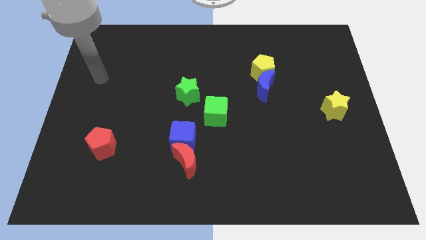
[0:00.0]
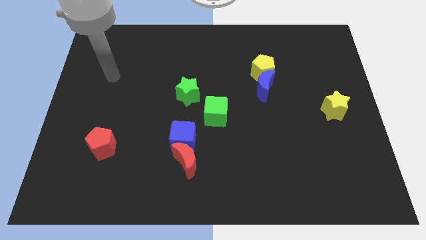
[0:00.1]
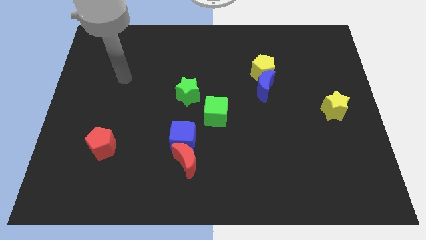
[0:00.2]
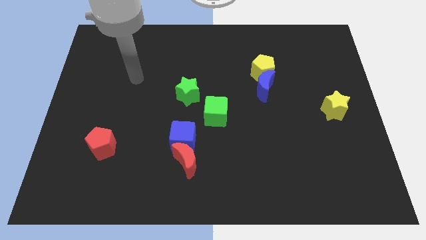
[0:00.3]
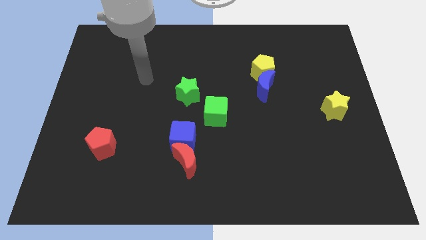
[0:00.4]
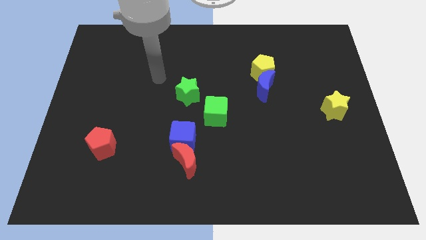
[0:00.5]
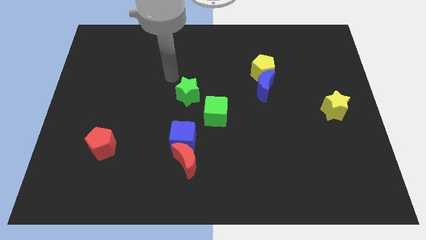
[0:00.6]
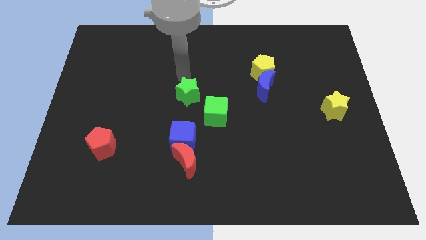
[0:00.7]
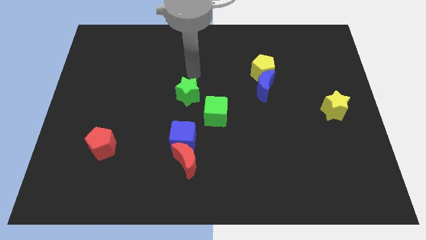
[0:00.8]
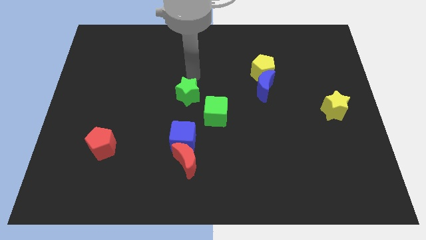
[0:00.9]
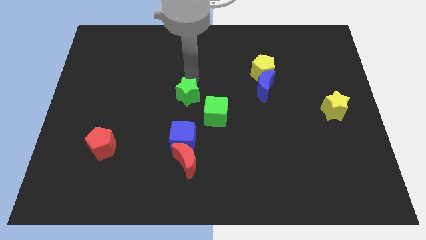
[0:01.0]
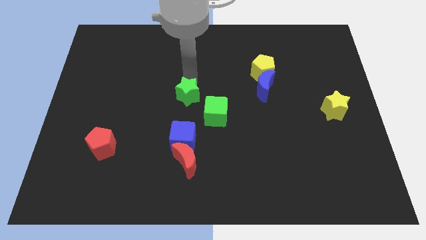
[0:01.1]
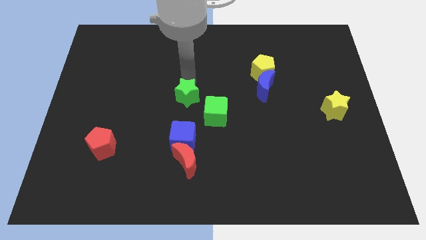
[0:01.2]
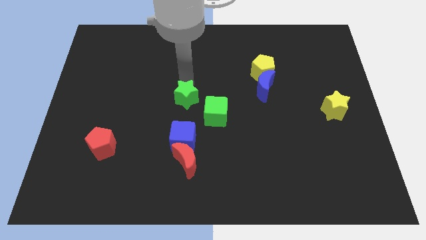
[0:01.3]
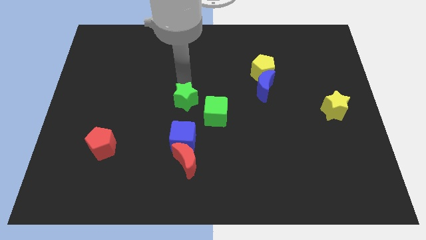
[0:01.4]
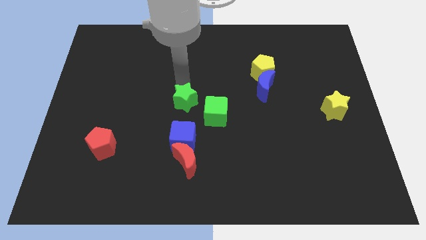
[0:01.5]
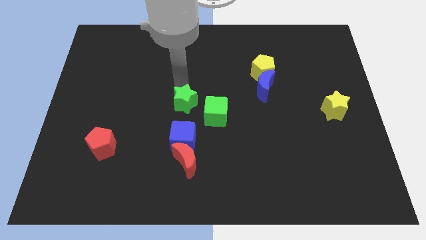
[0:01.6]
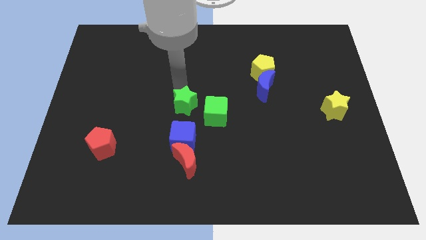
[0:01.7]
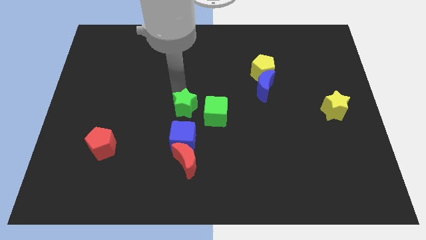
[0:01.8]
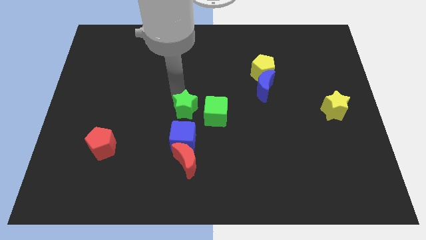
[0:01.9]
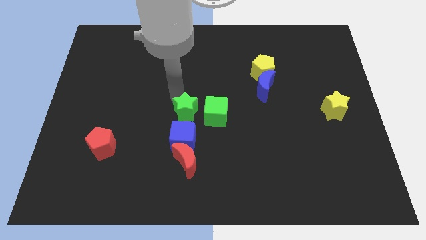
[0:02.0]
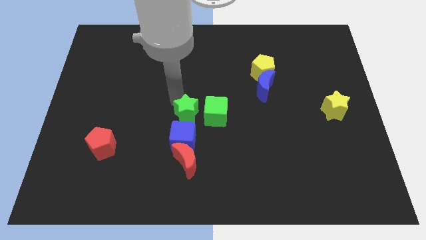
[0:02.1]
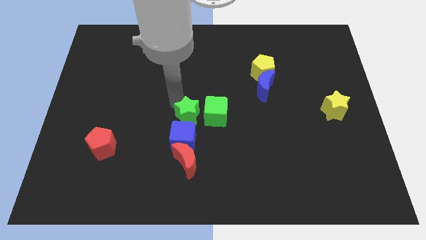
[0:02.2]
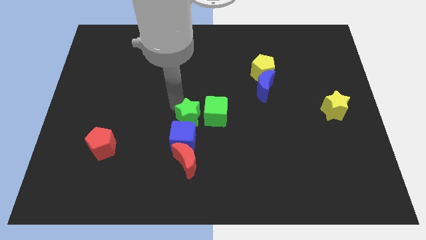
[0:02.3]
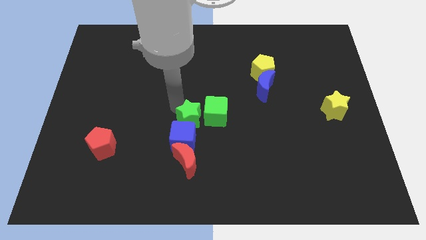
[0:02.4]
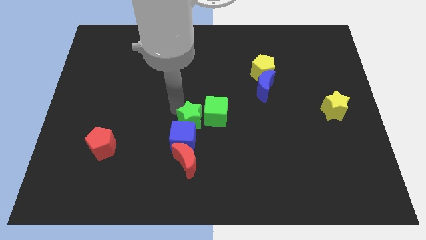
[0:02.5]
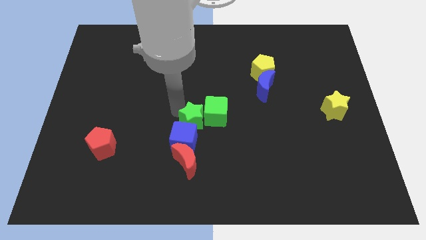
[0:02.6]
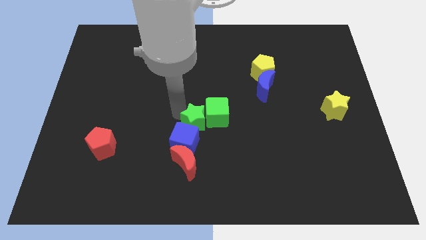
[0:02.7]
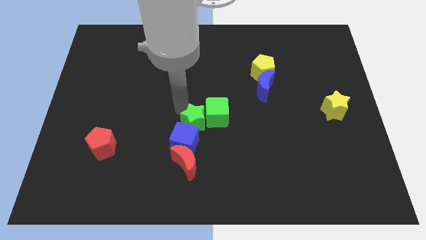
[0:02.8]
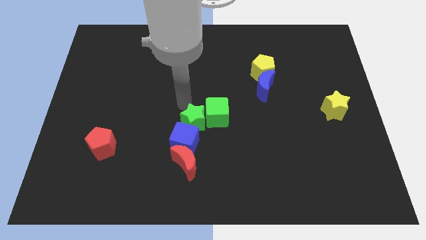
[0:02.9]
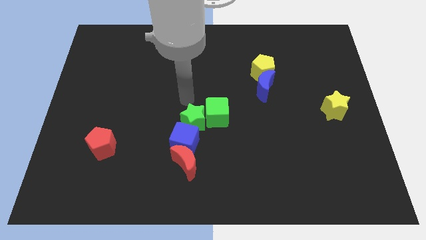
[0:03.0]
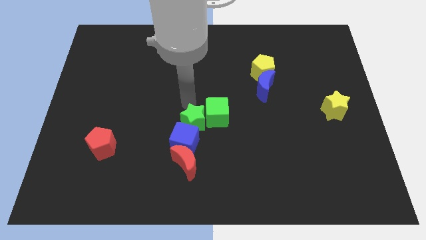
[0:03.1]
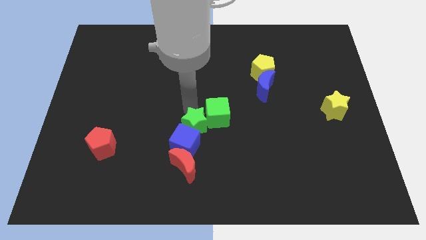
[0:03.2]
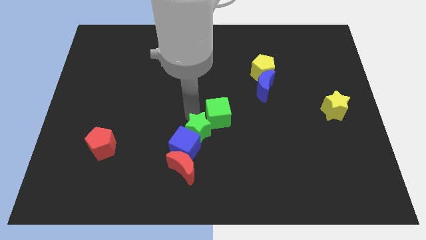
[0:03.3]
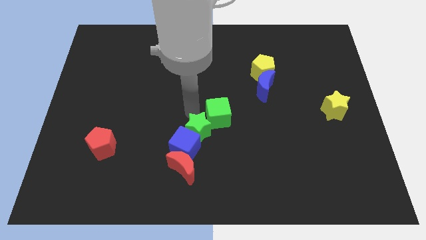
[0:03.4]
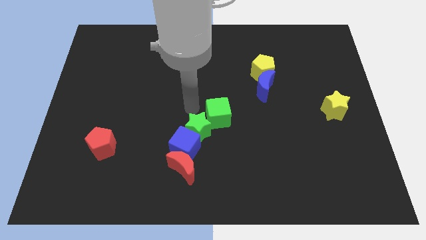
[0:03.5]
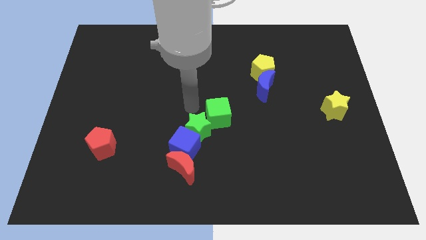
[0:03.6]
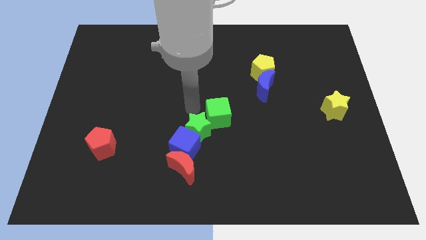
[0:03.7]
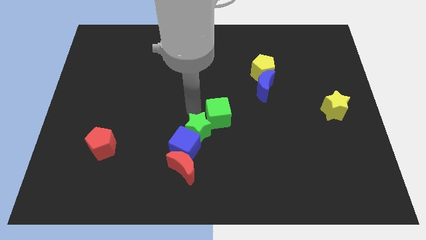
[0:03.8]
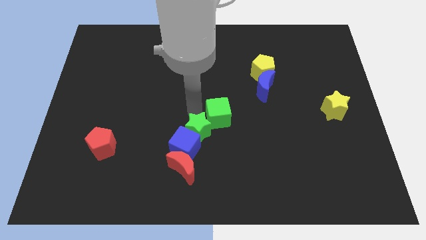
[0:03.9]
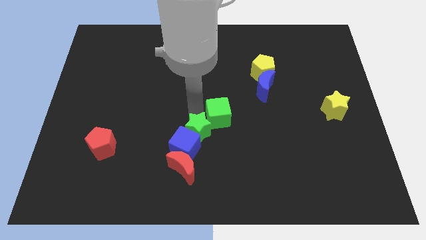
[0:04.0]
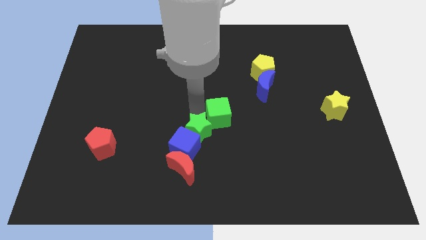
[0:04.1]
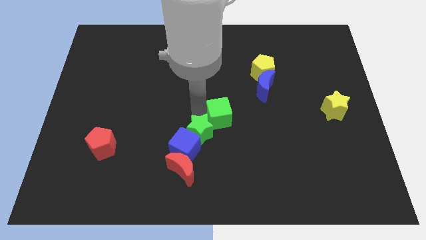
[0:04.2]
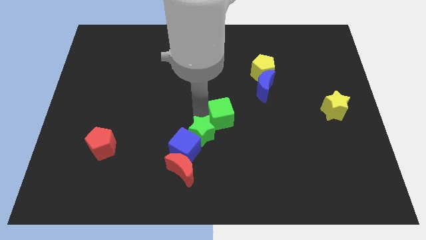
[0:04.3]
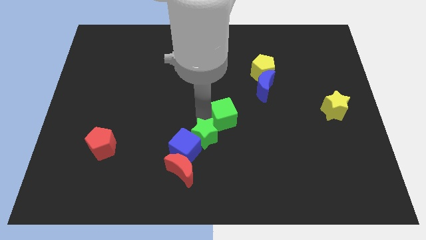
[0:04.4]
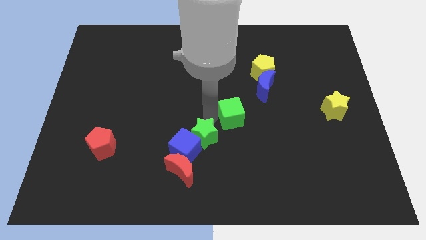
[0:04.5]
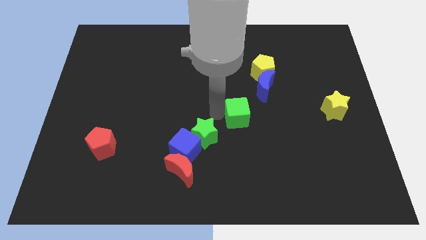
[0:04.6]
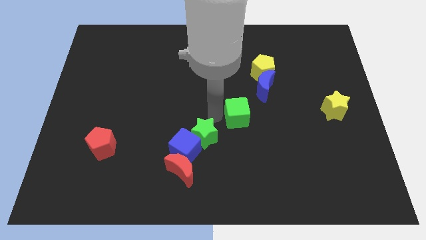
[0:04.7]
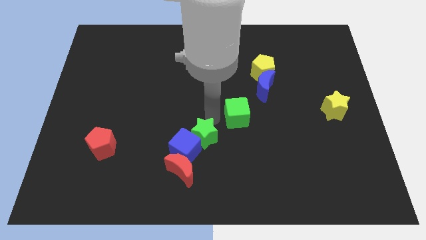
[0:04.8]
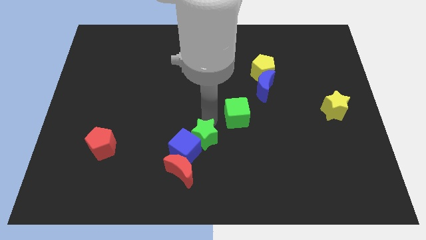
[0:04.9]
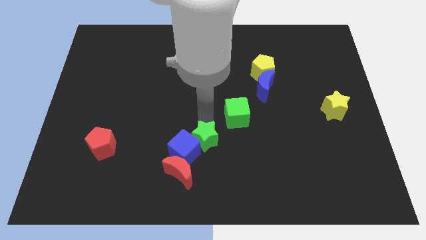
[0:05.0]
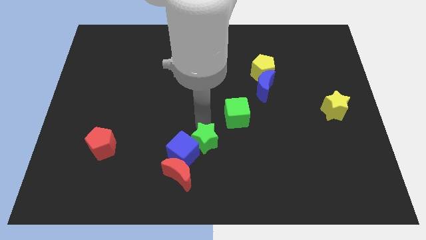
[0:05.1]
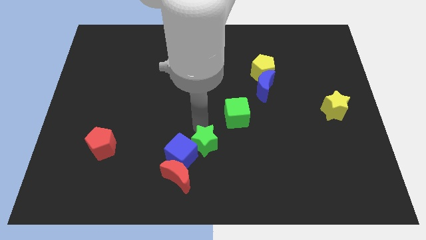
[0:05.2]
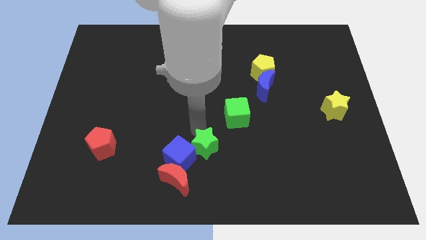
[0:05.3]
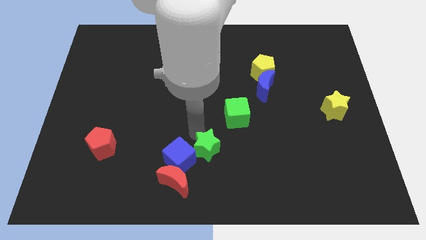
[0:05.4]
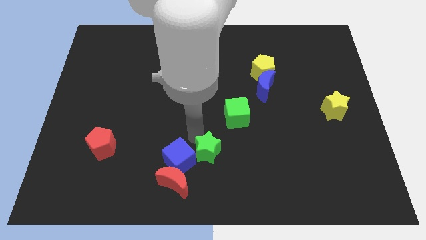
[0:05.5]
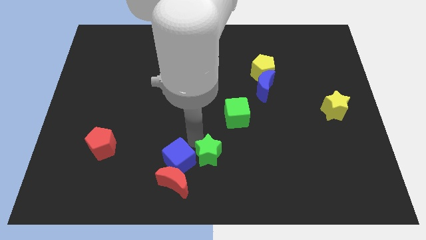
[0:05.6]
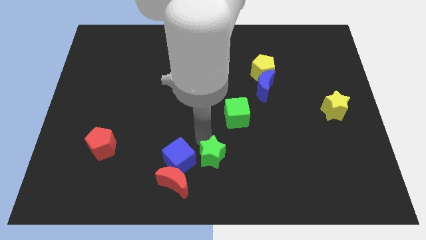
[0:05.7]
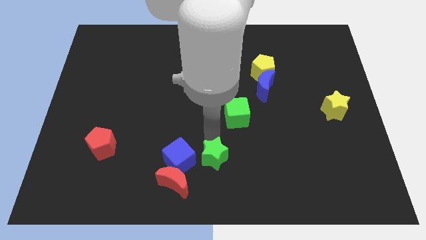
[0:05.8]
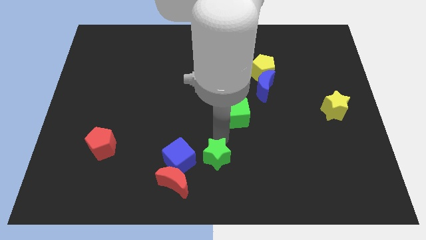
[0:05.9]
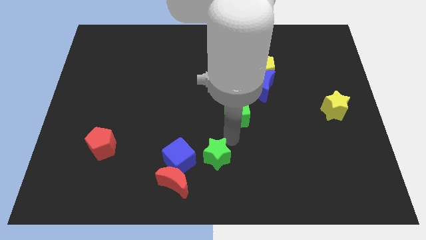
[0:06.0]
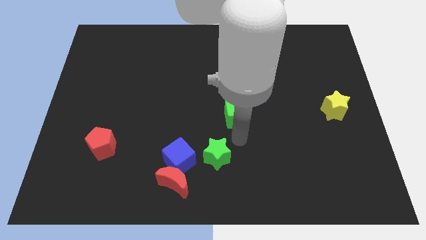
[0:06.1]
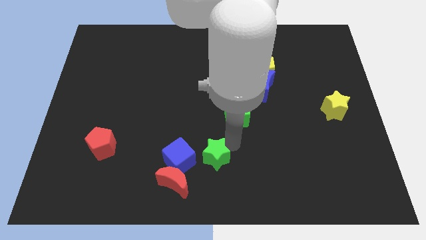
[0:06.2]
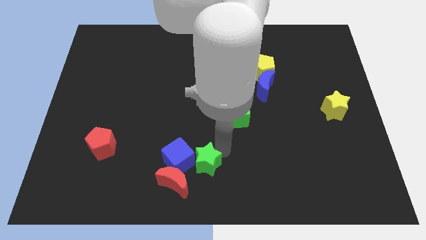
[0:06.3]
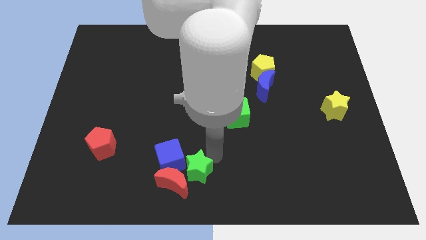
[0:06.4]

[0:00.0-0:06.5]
push the green star next to the red moon

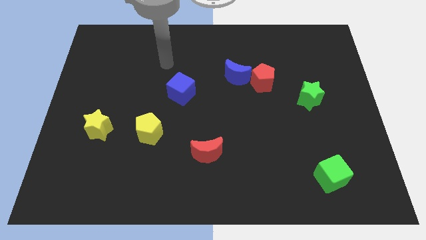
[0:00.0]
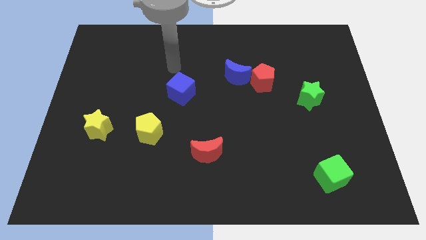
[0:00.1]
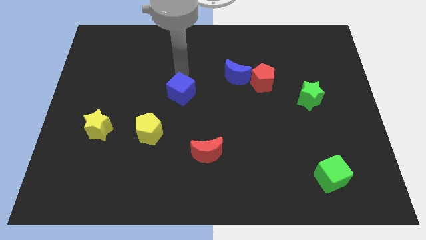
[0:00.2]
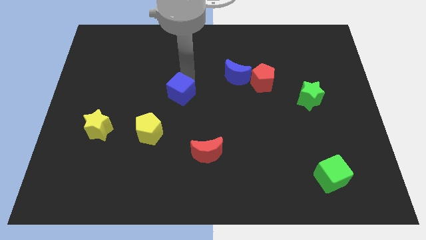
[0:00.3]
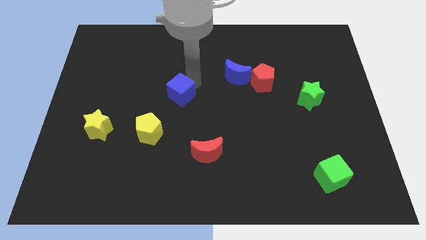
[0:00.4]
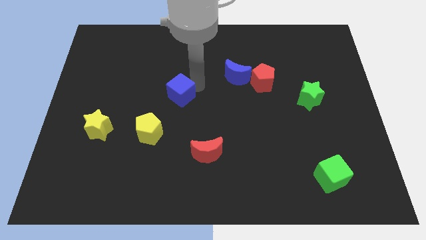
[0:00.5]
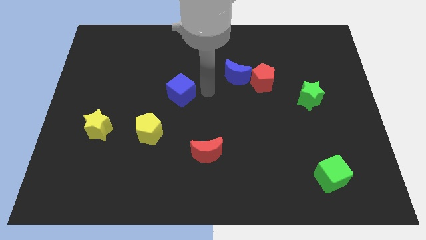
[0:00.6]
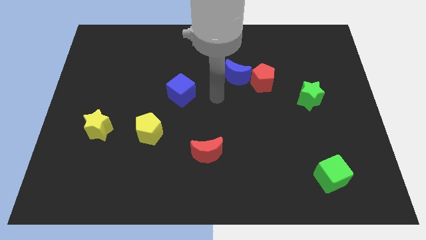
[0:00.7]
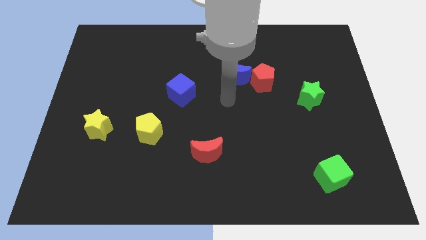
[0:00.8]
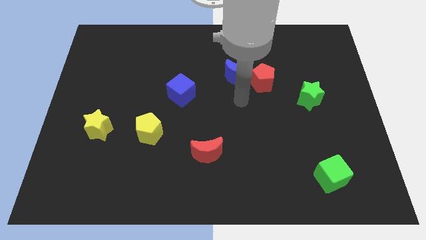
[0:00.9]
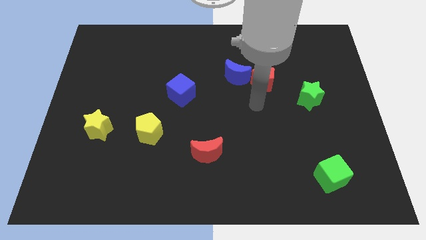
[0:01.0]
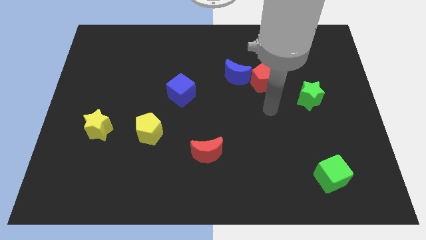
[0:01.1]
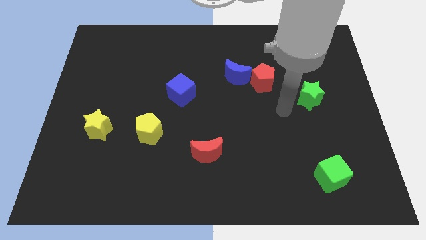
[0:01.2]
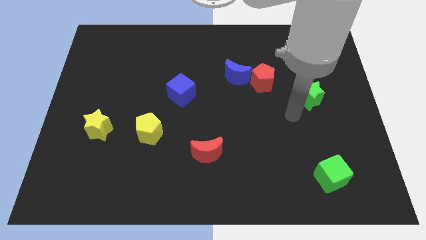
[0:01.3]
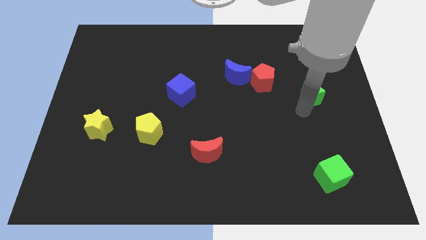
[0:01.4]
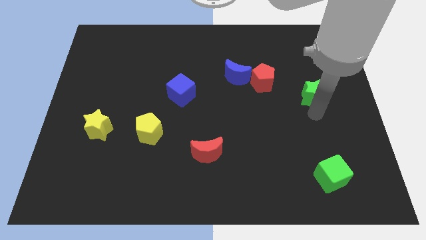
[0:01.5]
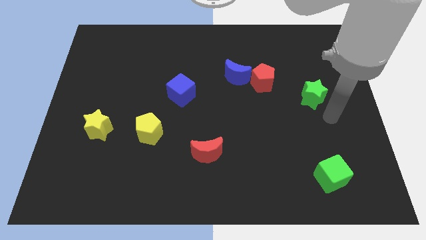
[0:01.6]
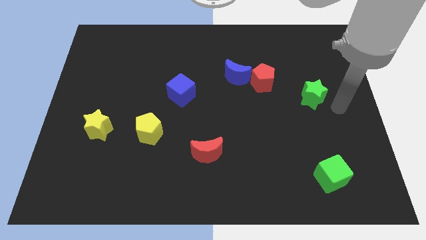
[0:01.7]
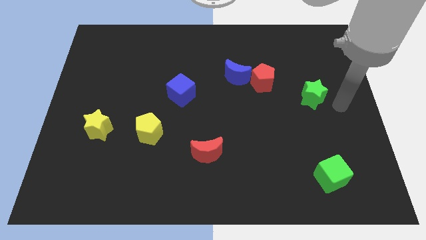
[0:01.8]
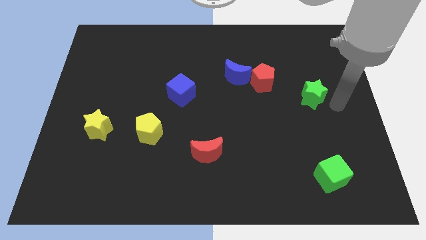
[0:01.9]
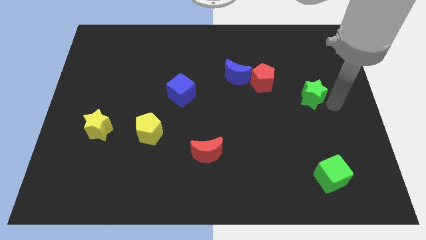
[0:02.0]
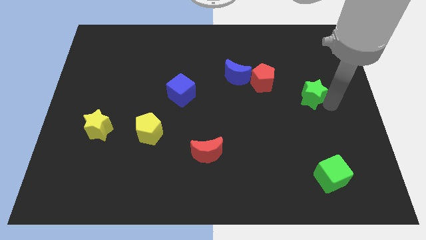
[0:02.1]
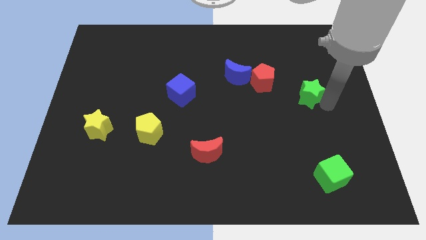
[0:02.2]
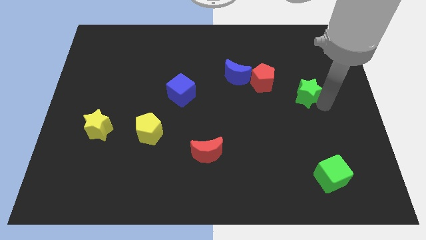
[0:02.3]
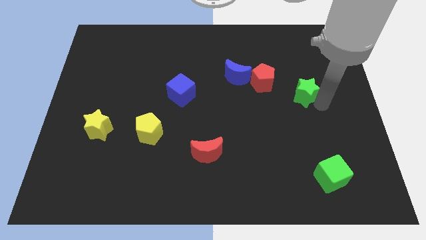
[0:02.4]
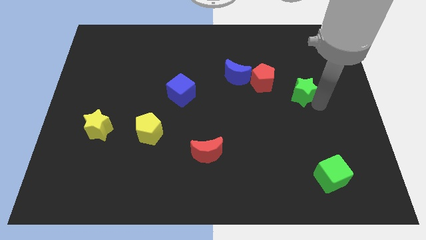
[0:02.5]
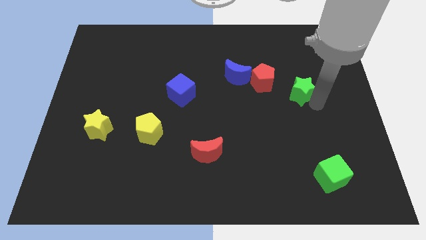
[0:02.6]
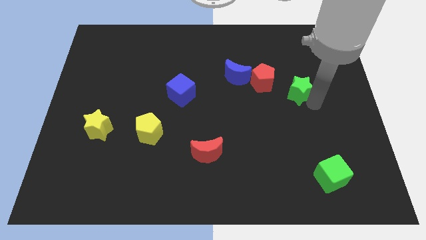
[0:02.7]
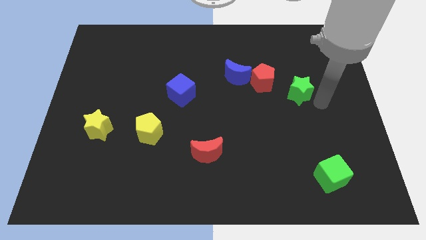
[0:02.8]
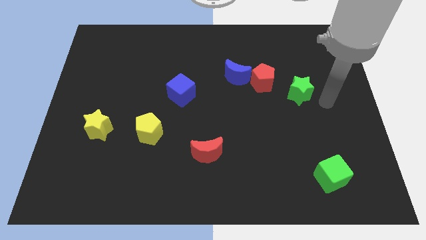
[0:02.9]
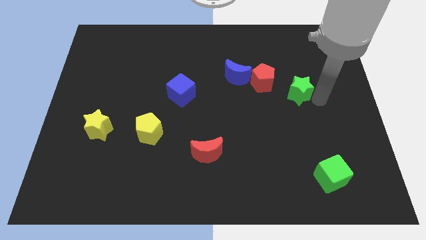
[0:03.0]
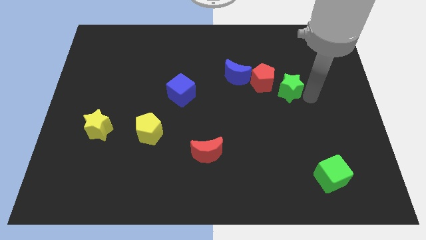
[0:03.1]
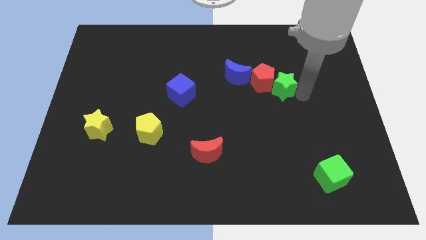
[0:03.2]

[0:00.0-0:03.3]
move the green star to the red pentagon
